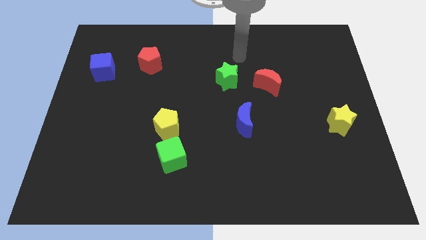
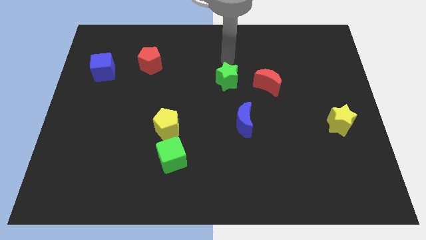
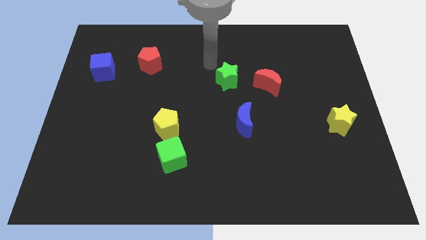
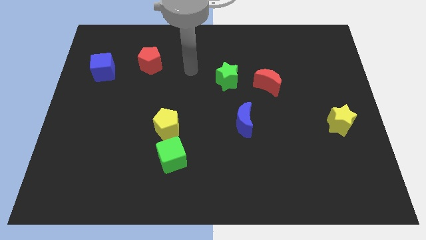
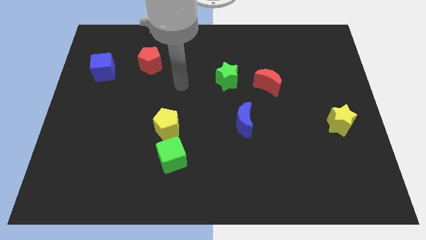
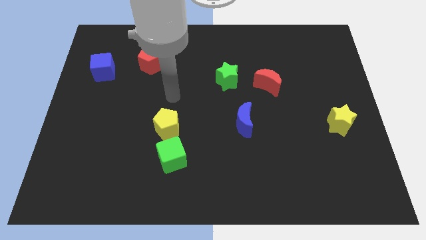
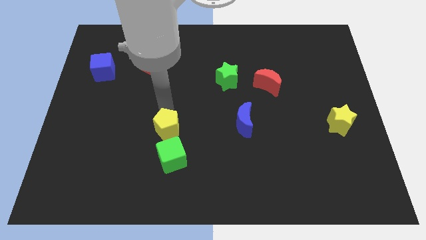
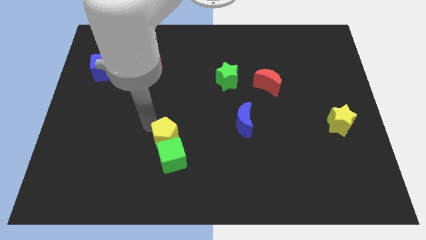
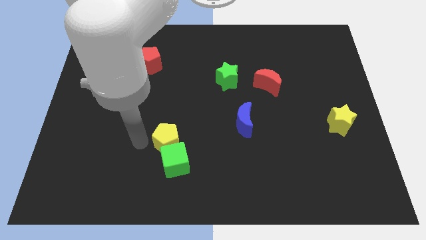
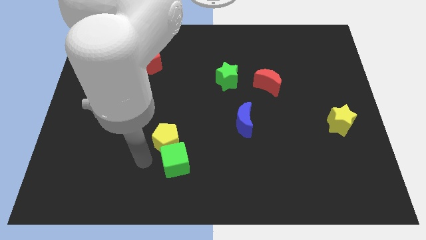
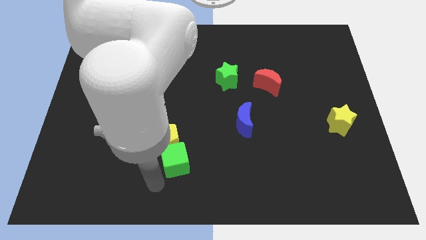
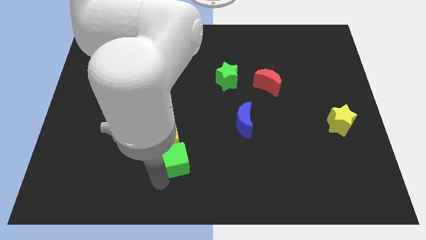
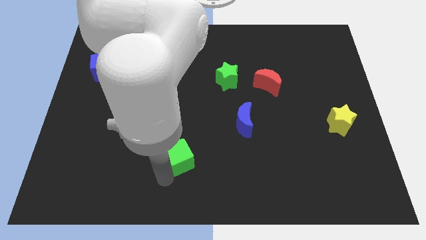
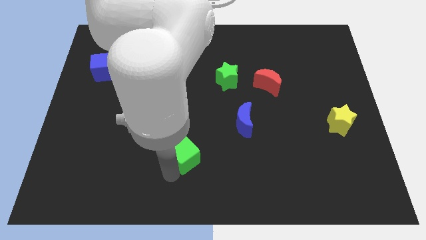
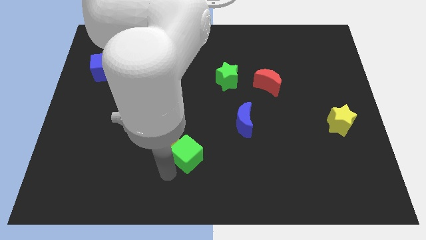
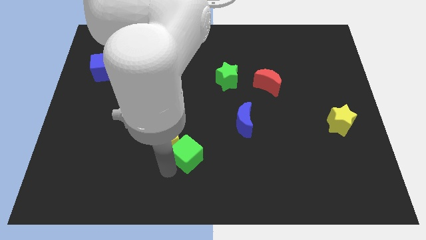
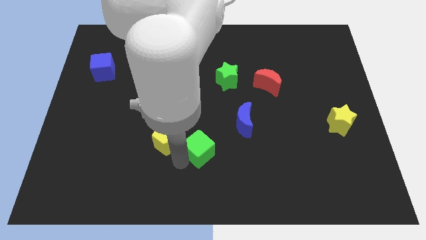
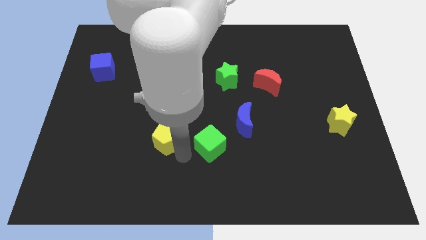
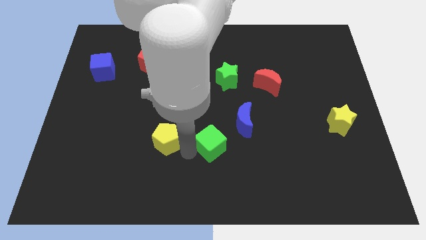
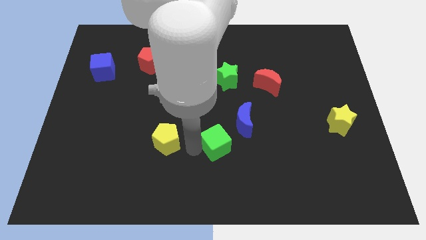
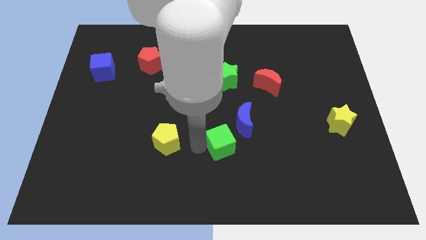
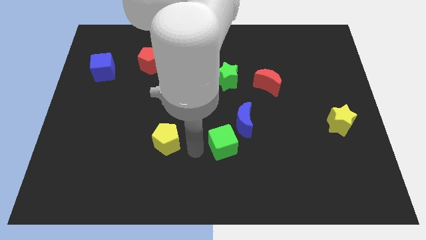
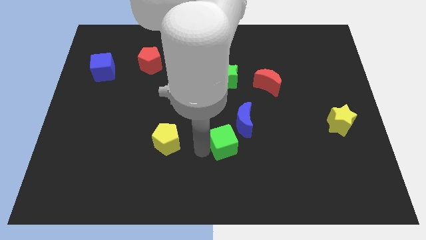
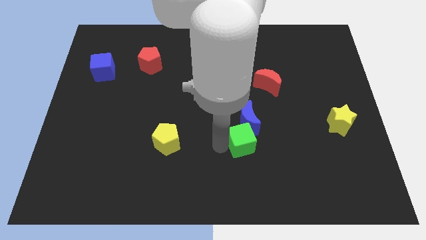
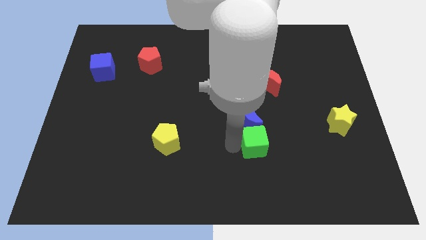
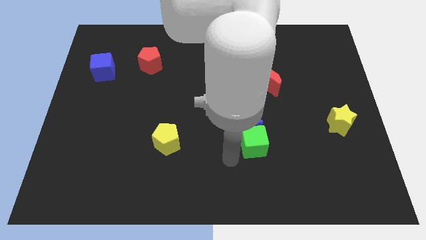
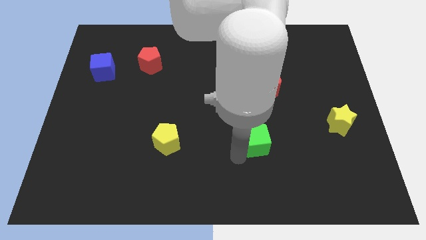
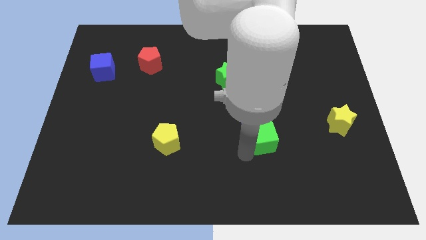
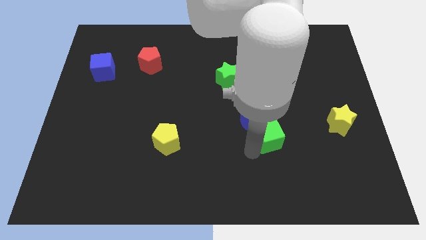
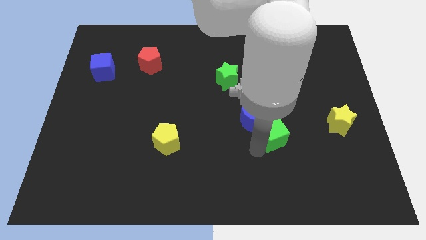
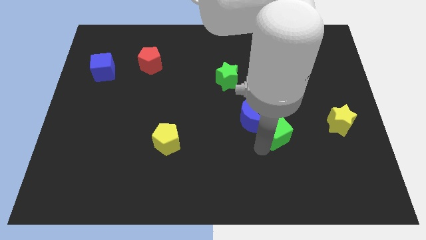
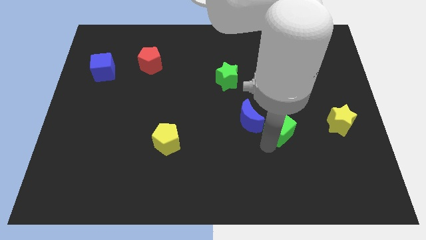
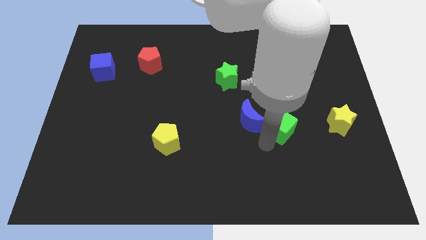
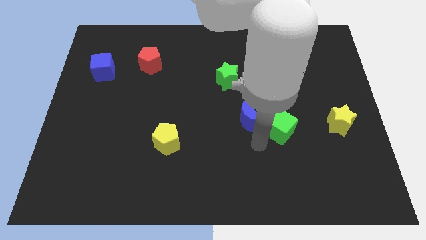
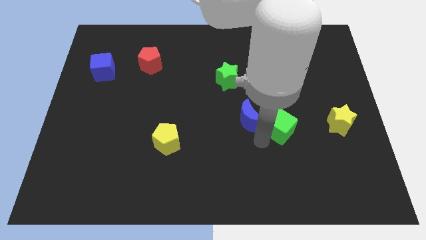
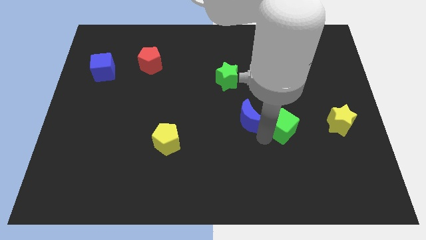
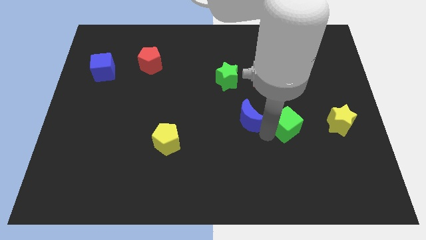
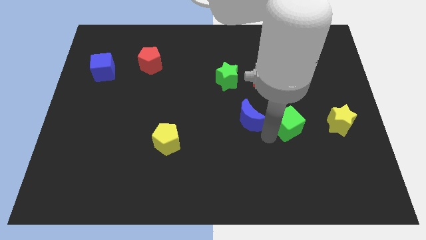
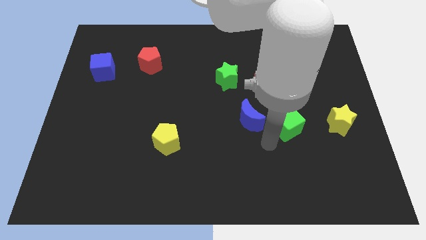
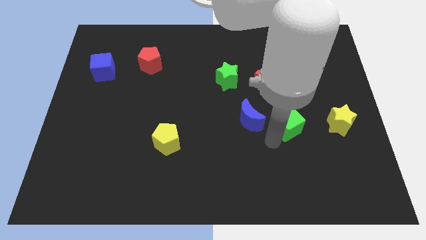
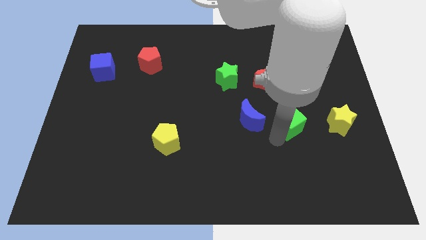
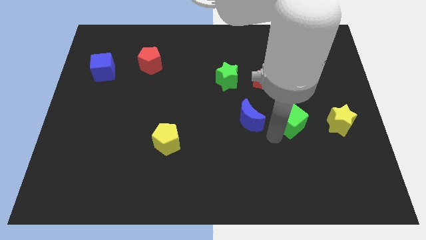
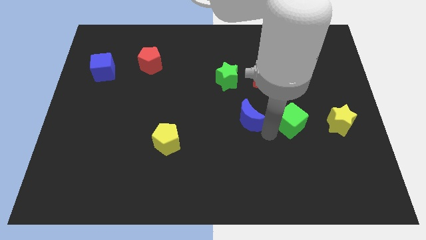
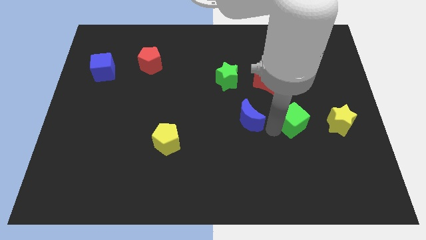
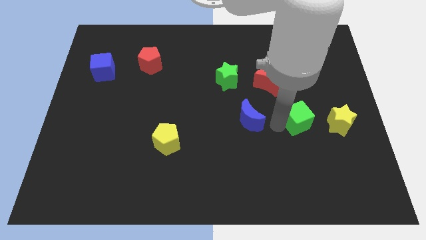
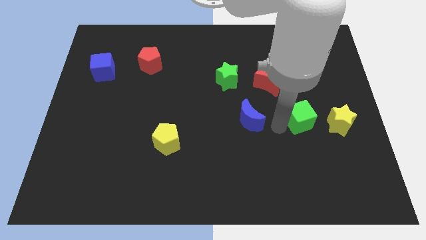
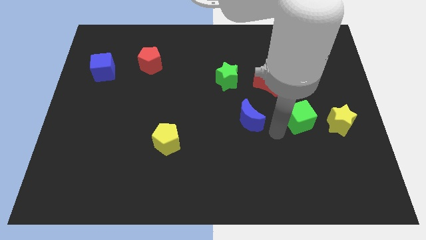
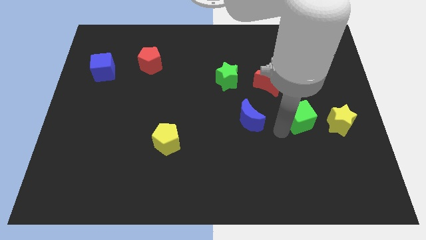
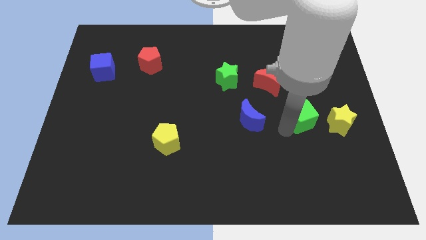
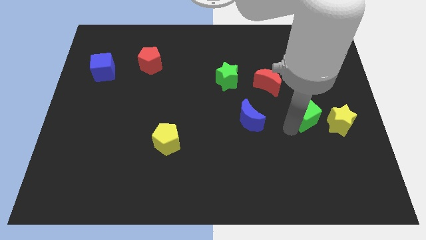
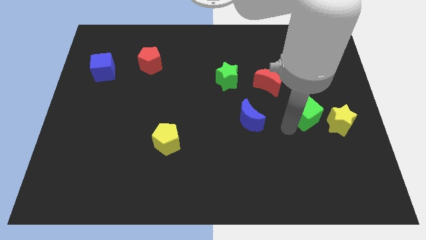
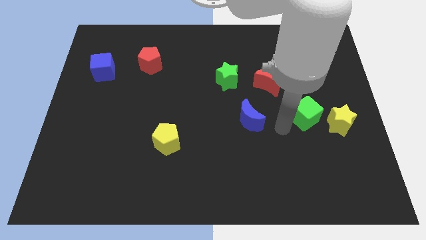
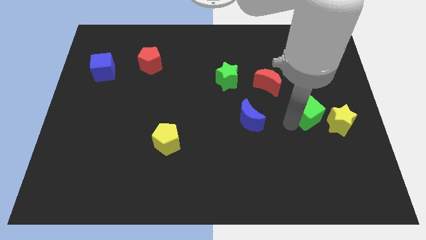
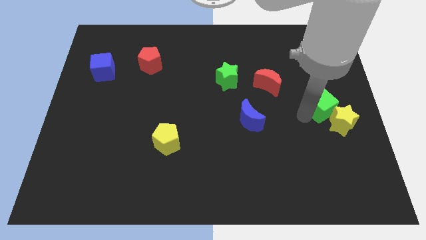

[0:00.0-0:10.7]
move the green cube to the center right

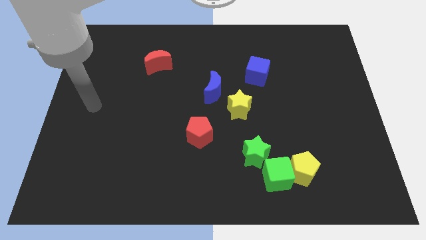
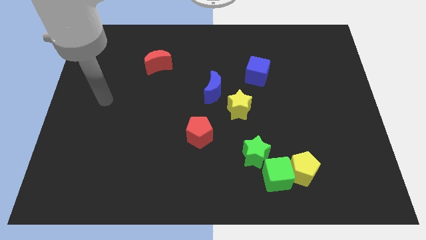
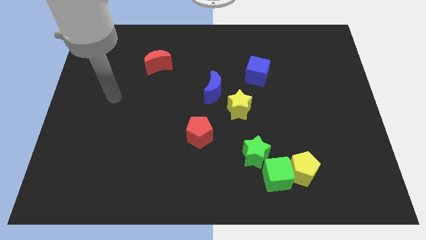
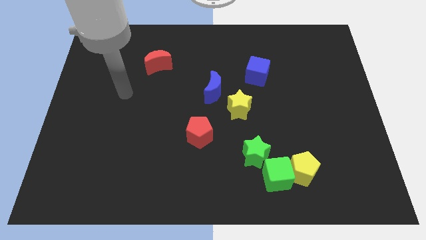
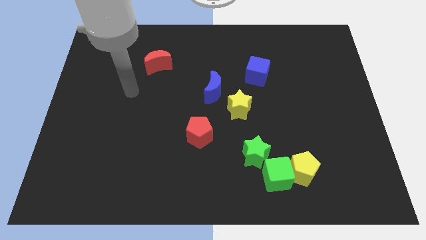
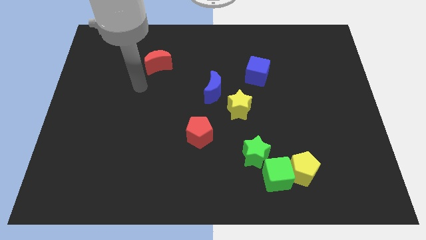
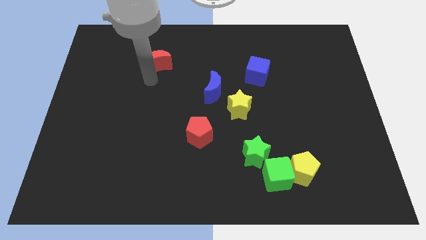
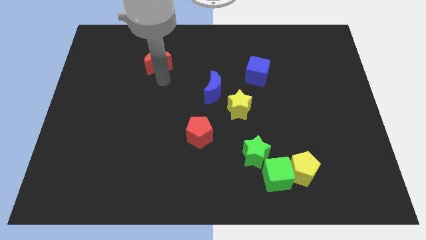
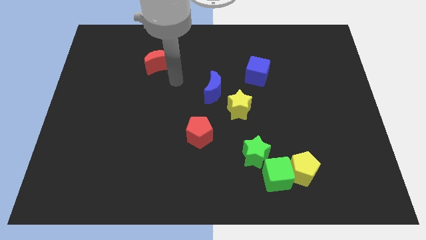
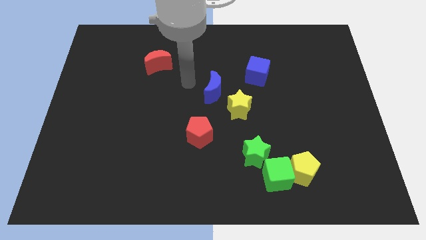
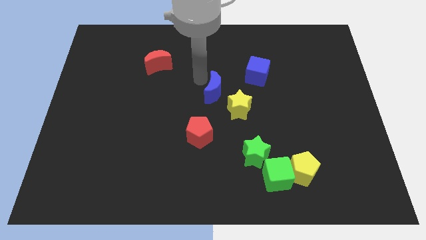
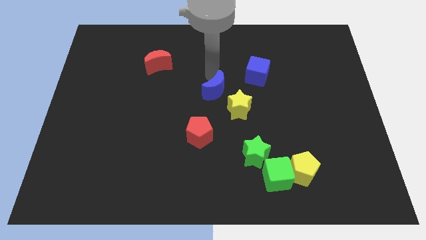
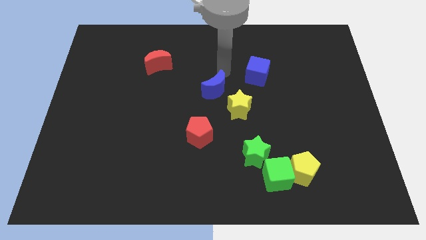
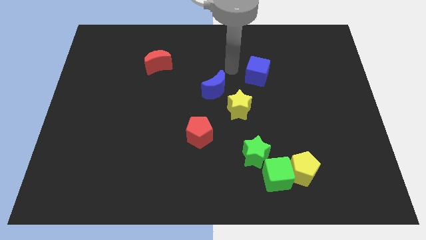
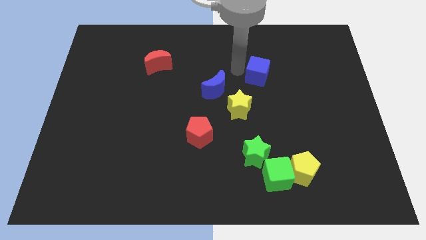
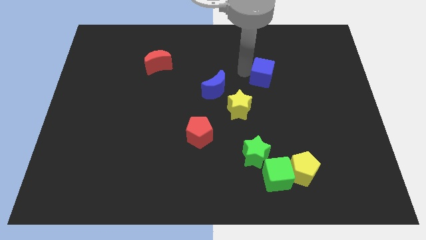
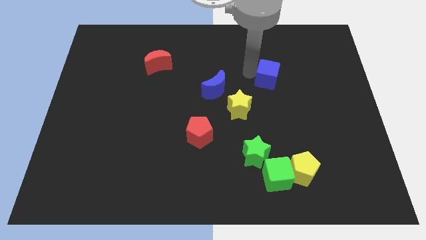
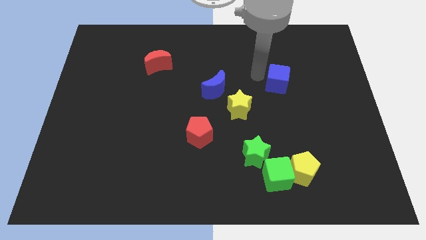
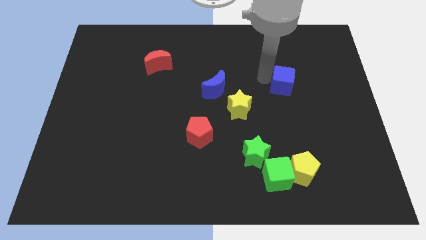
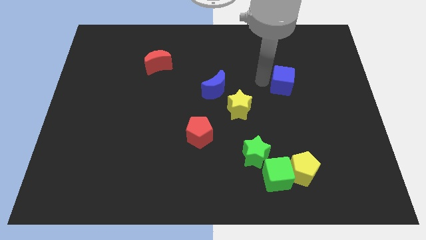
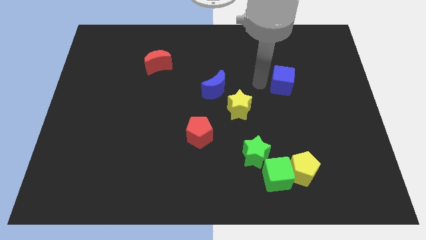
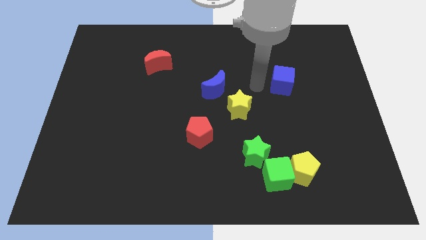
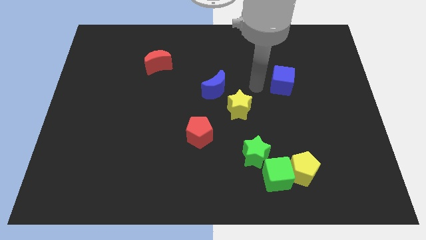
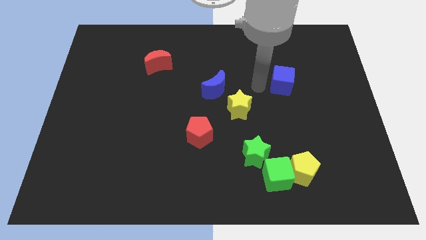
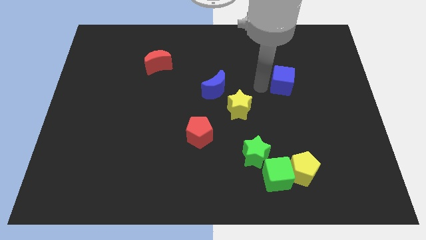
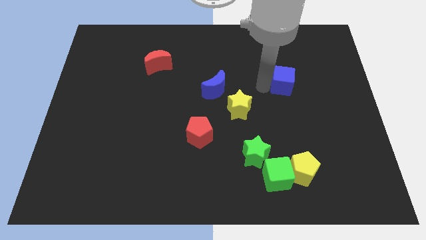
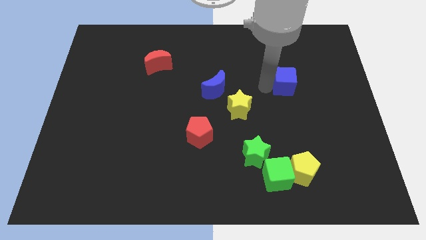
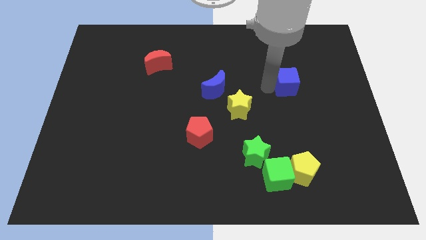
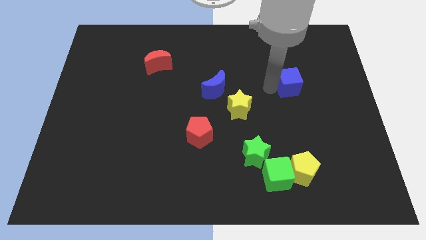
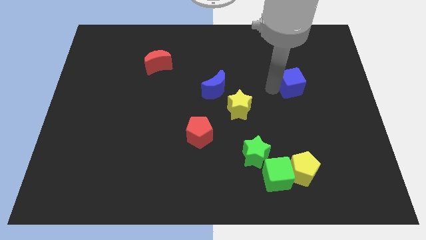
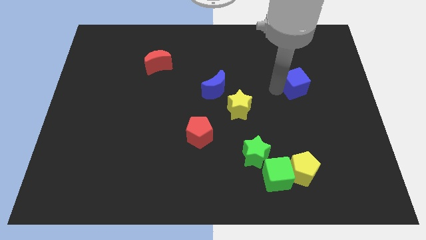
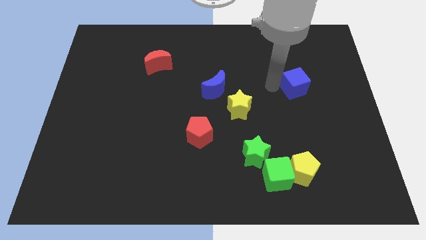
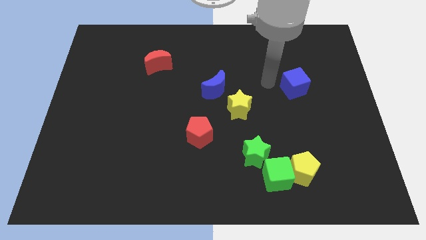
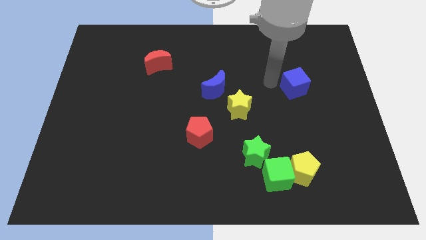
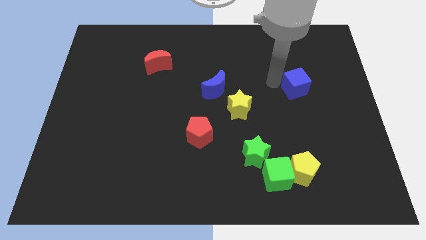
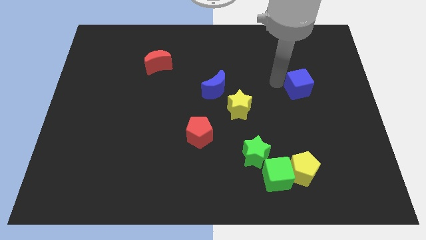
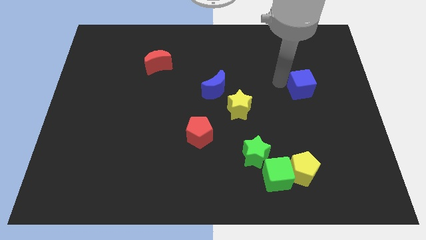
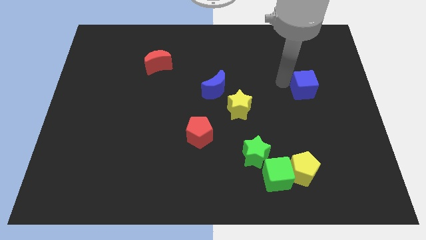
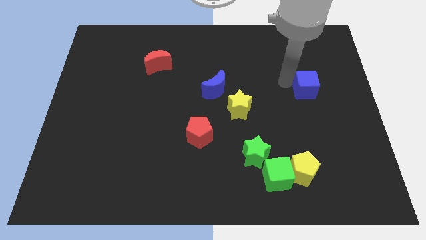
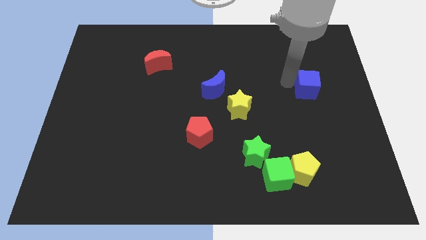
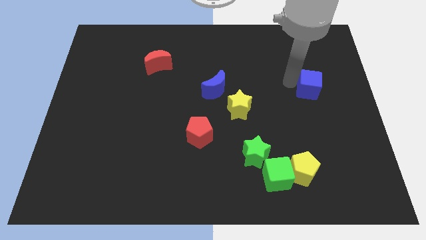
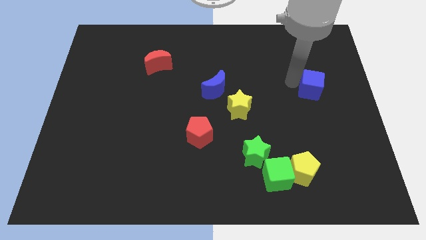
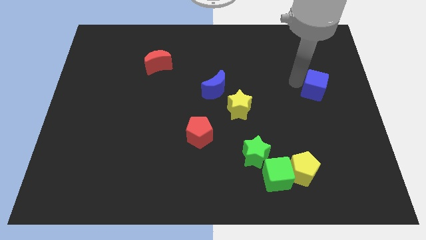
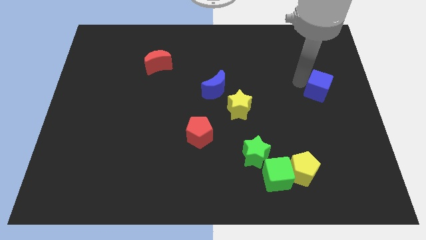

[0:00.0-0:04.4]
move the blue cube to the right side
